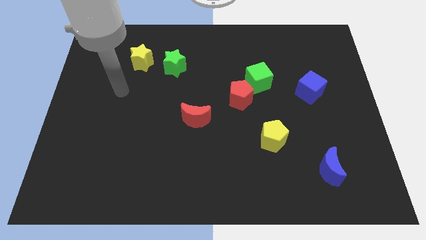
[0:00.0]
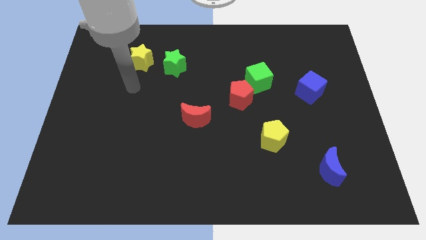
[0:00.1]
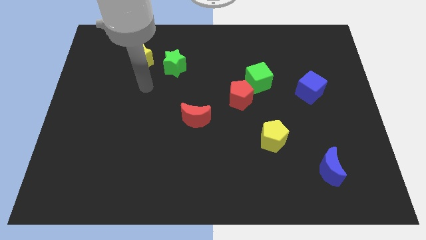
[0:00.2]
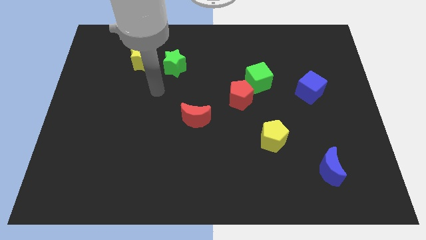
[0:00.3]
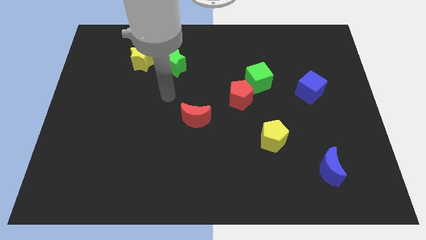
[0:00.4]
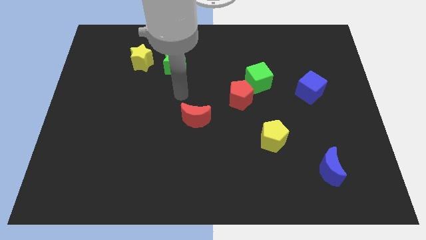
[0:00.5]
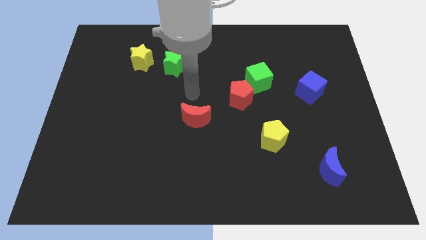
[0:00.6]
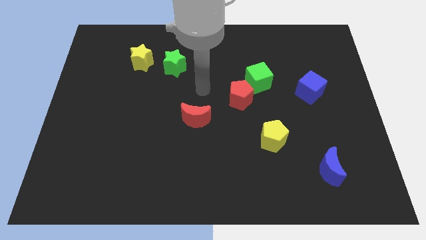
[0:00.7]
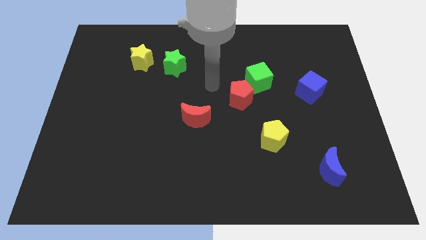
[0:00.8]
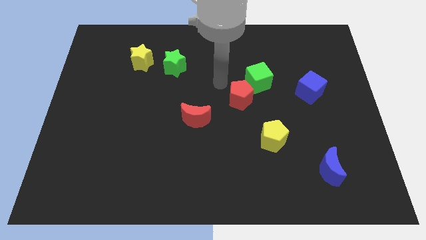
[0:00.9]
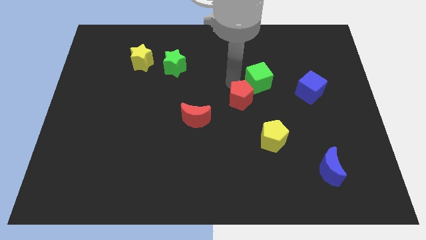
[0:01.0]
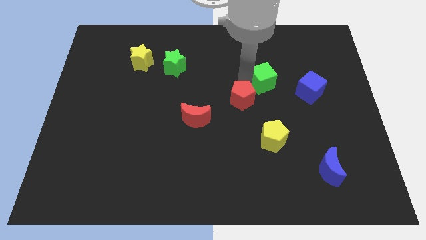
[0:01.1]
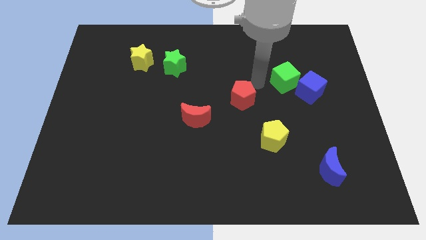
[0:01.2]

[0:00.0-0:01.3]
move the red pentagon away from the green cube

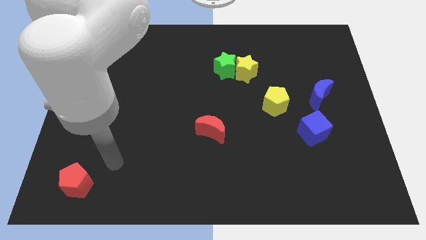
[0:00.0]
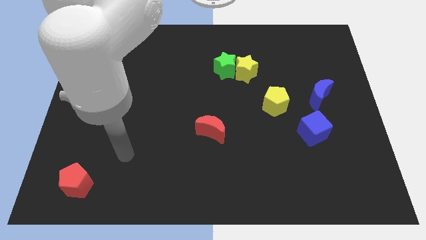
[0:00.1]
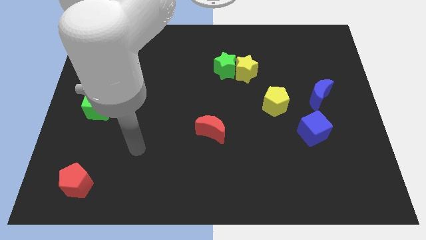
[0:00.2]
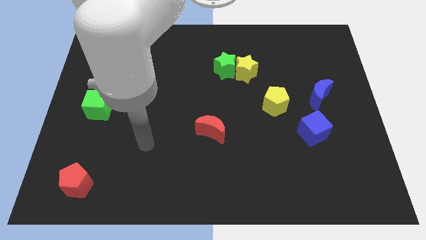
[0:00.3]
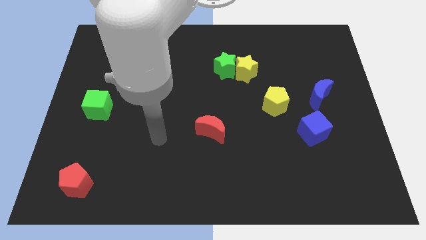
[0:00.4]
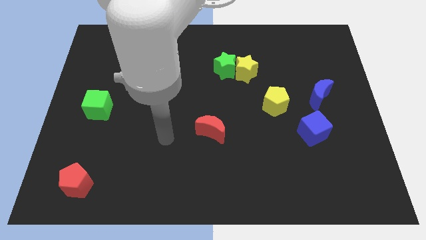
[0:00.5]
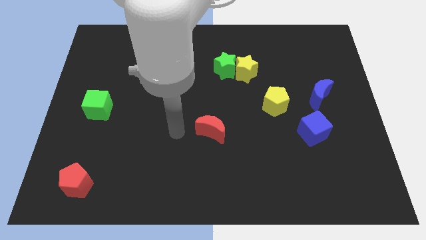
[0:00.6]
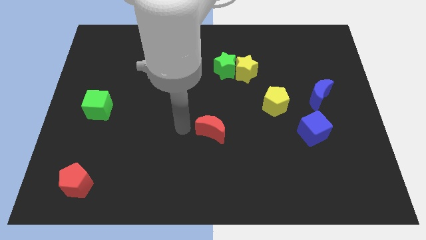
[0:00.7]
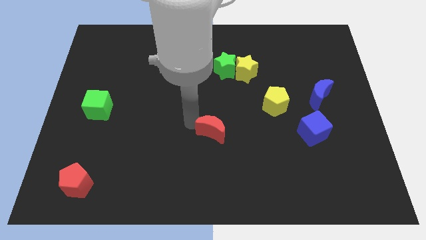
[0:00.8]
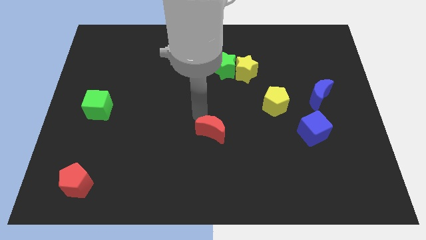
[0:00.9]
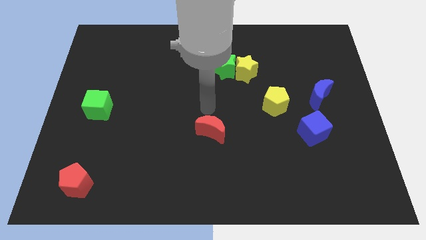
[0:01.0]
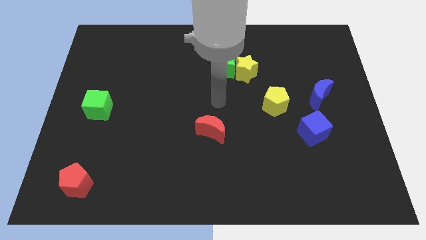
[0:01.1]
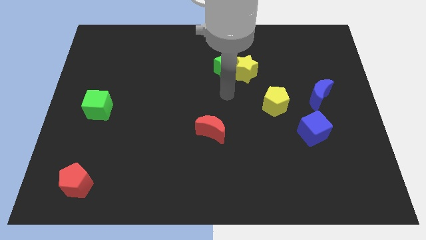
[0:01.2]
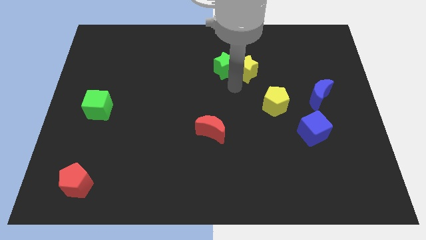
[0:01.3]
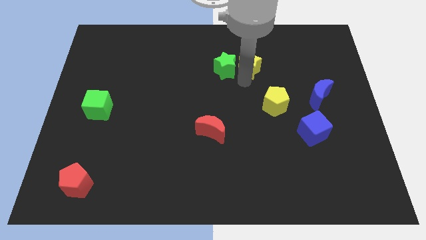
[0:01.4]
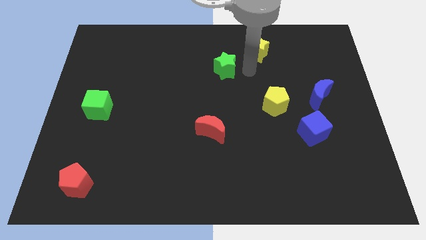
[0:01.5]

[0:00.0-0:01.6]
pull the green star apart from the yellow star

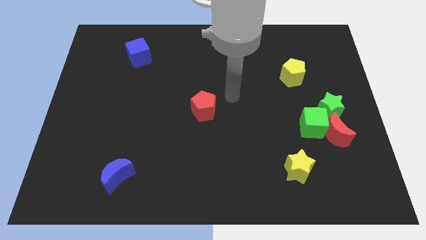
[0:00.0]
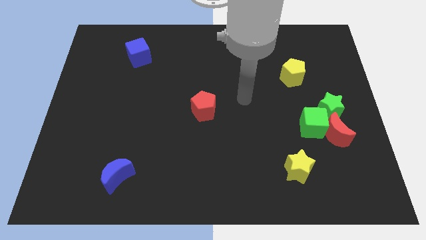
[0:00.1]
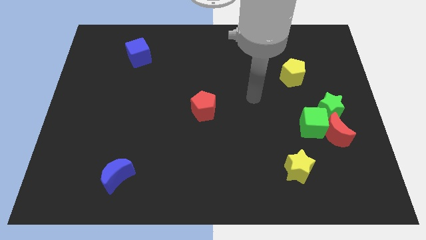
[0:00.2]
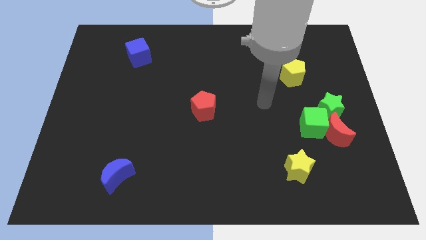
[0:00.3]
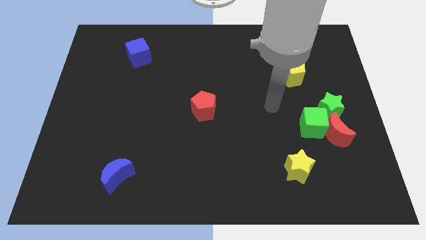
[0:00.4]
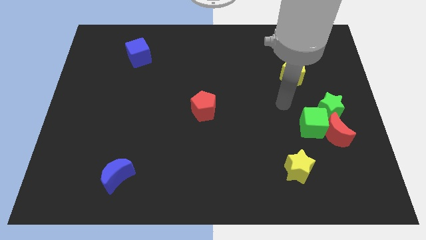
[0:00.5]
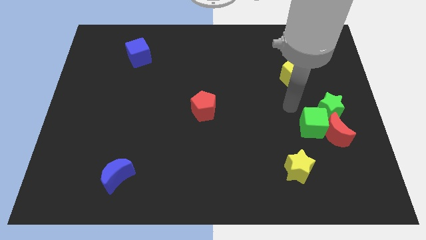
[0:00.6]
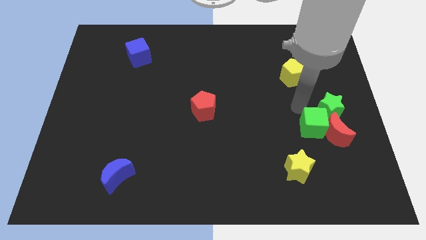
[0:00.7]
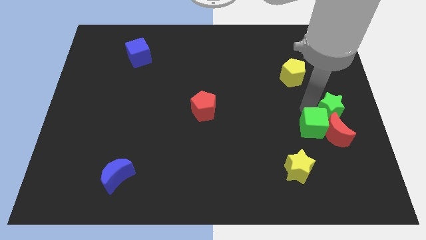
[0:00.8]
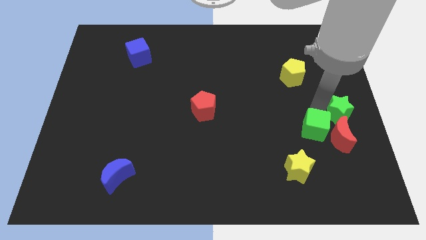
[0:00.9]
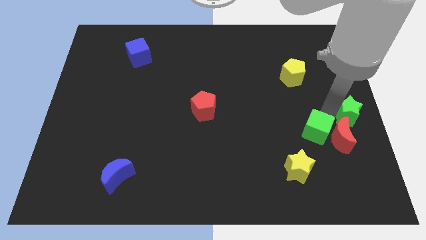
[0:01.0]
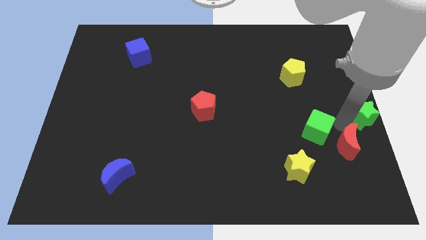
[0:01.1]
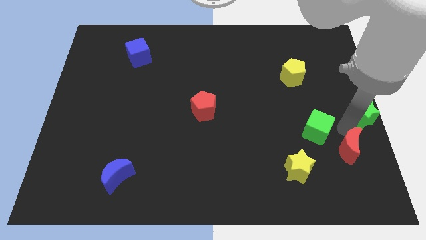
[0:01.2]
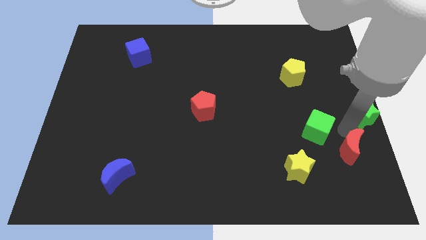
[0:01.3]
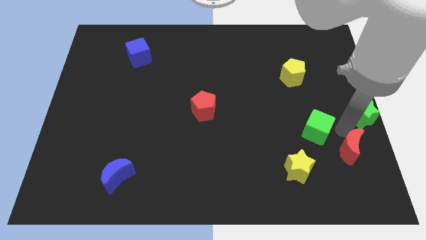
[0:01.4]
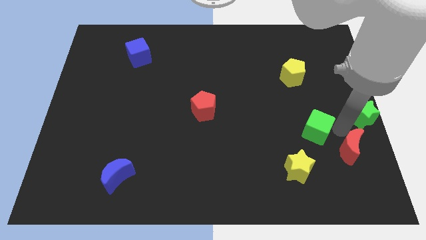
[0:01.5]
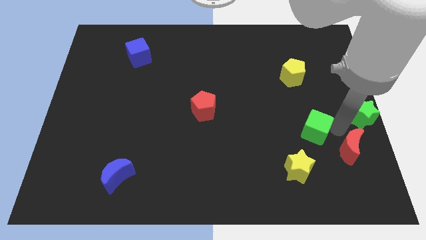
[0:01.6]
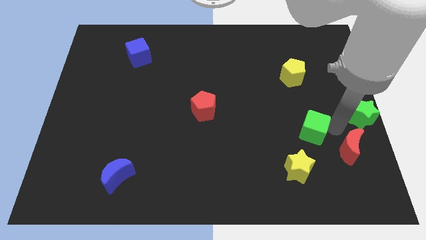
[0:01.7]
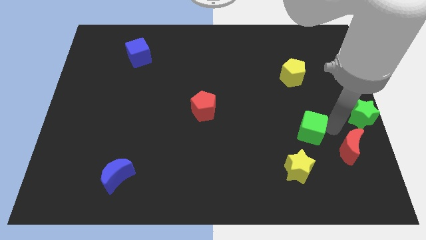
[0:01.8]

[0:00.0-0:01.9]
move the green cube away from the red moon and green star

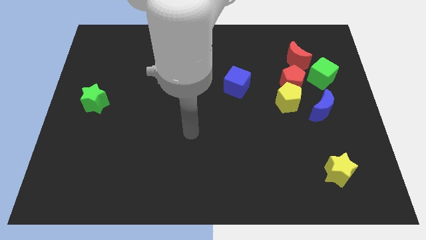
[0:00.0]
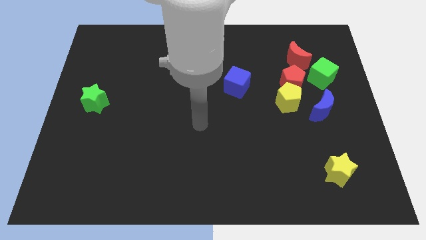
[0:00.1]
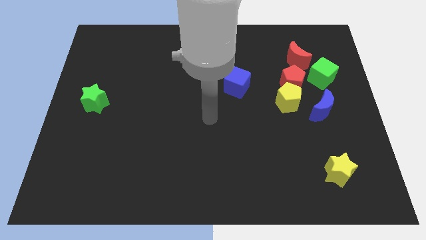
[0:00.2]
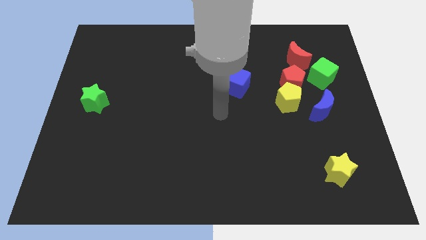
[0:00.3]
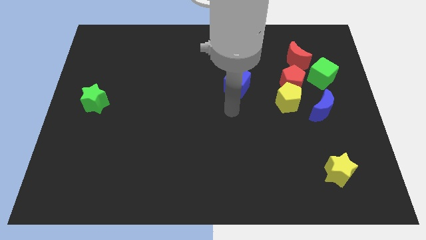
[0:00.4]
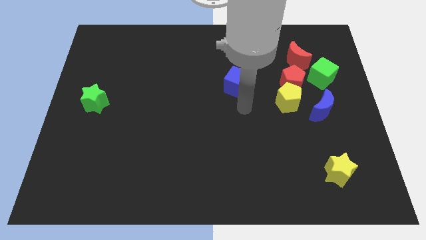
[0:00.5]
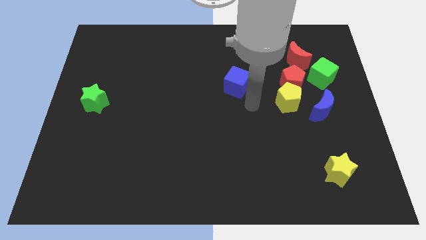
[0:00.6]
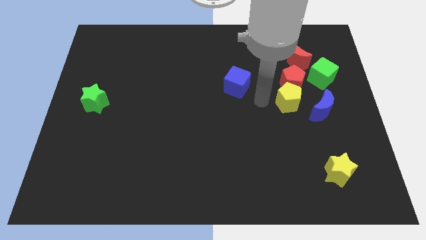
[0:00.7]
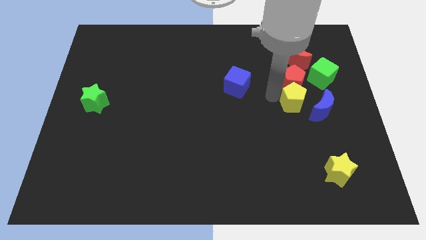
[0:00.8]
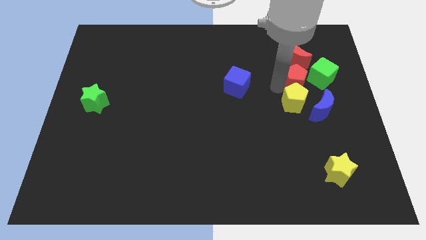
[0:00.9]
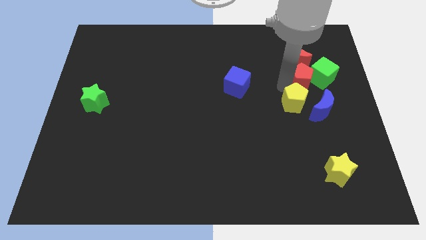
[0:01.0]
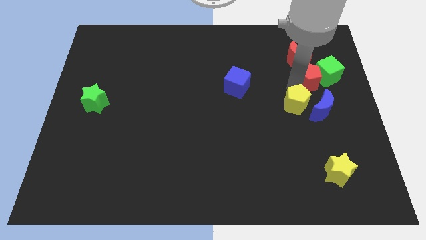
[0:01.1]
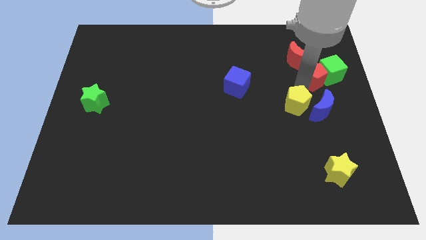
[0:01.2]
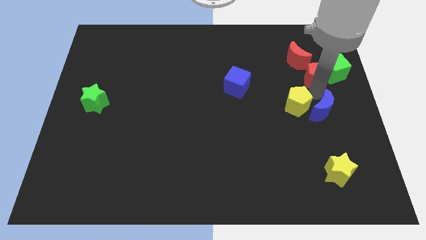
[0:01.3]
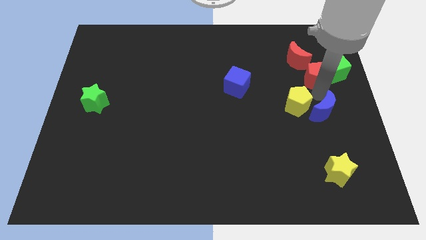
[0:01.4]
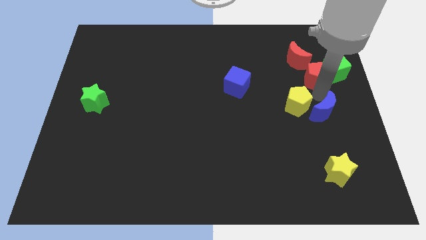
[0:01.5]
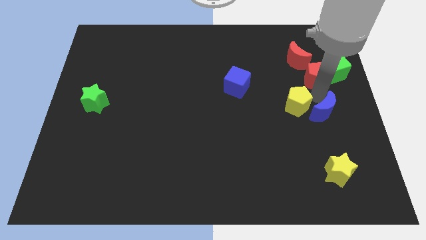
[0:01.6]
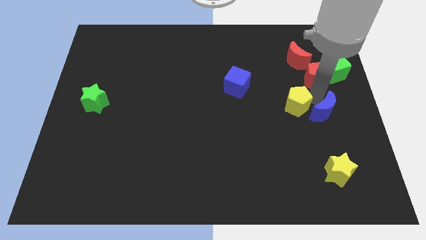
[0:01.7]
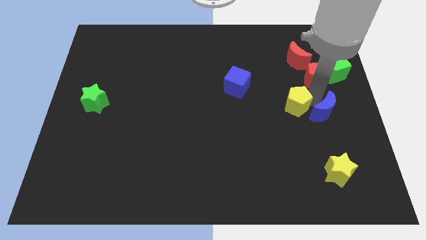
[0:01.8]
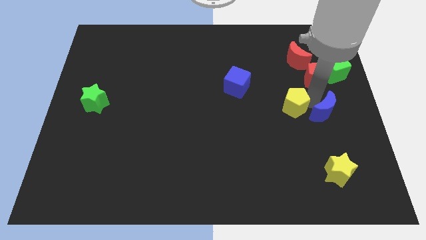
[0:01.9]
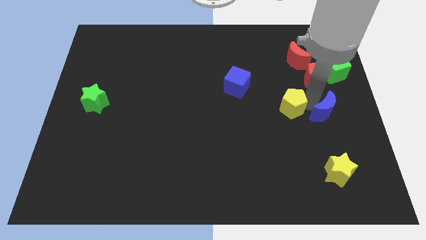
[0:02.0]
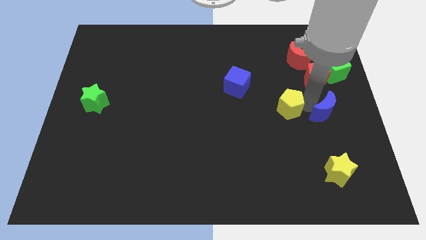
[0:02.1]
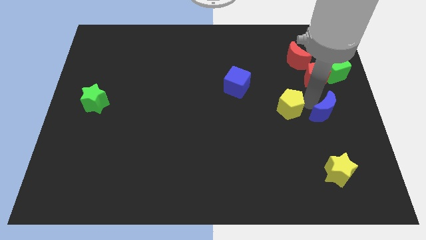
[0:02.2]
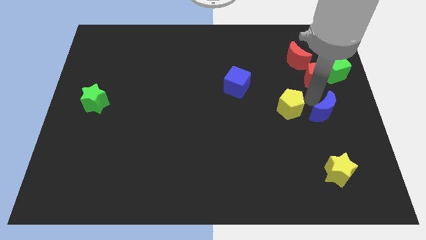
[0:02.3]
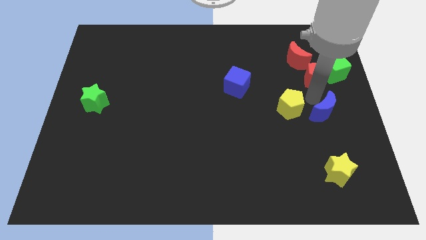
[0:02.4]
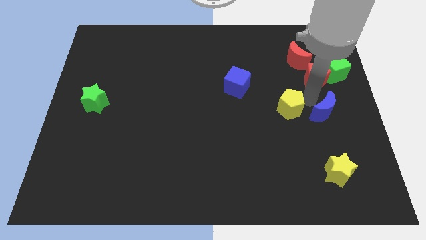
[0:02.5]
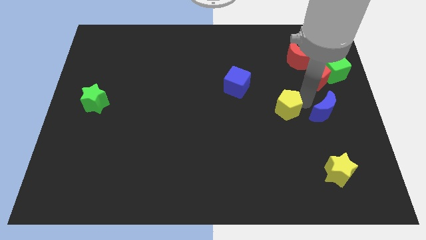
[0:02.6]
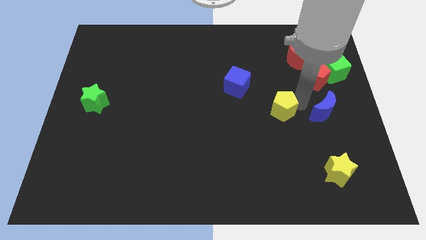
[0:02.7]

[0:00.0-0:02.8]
separate the yellow pentagon from the red pentagon and blue moon

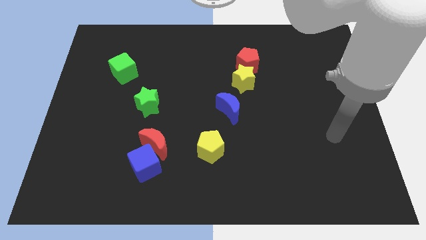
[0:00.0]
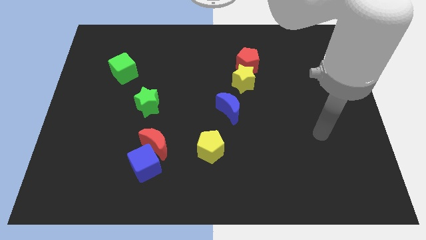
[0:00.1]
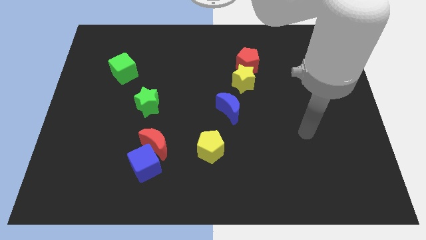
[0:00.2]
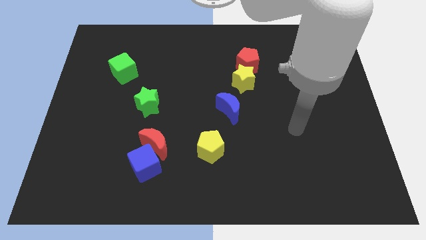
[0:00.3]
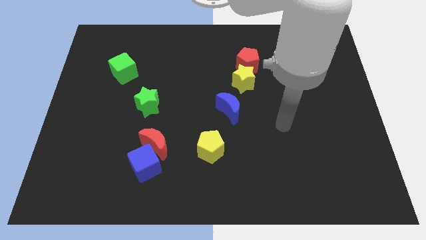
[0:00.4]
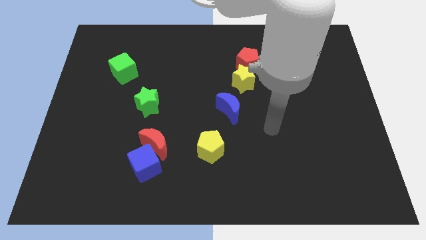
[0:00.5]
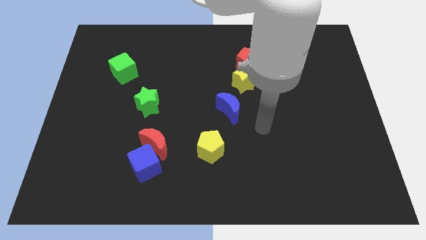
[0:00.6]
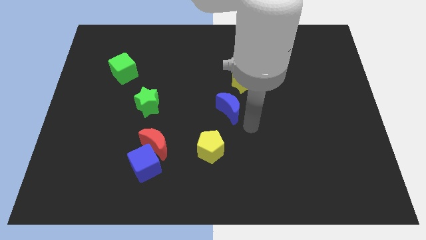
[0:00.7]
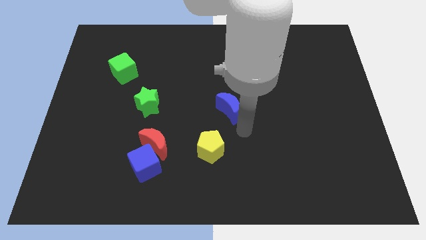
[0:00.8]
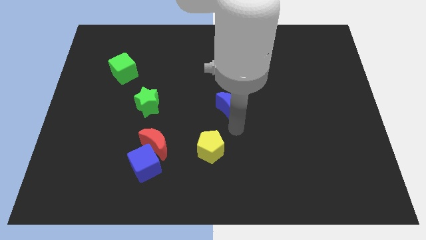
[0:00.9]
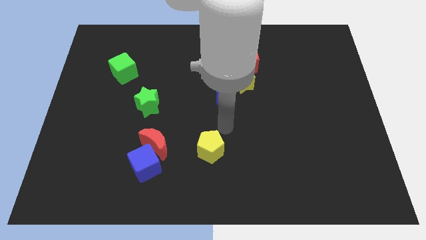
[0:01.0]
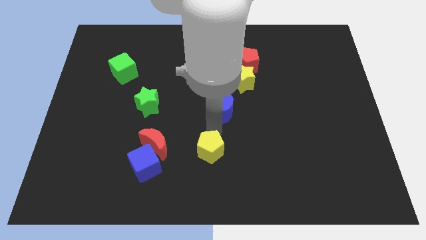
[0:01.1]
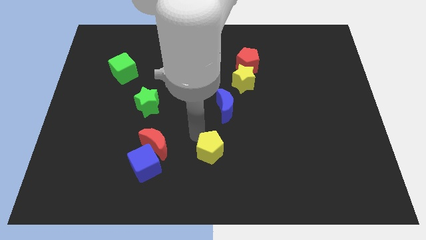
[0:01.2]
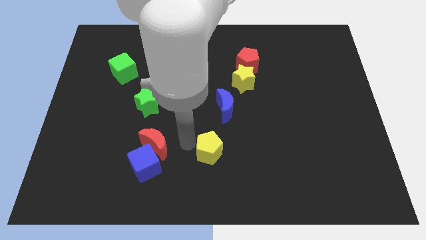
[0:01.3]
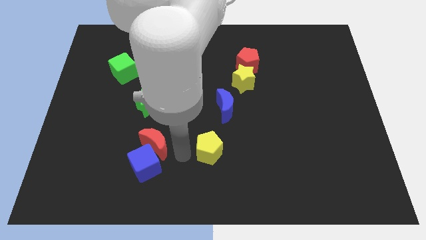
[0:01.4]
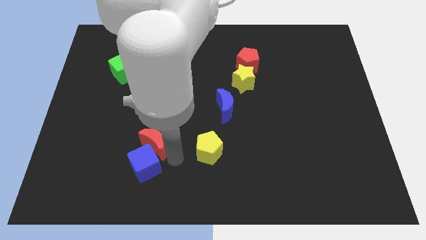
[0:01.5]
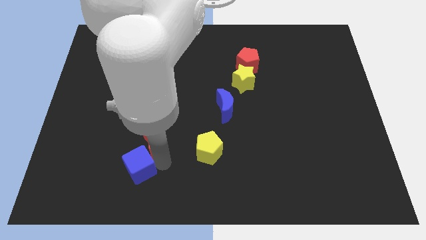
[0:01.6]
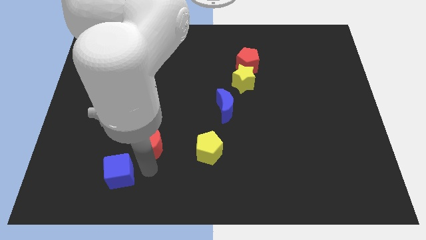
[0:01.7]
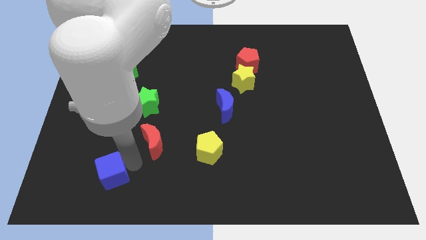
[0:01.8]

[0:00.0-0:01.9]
move the red moon away from the blue cube
